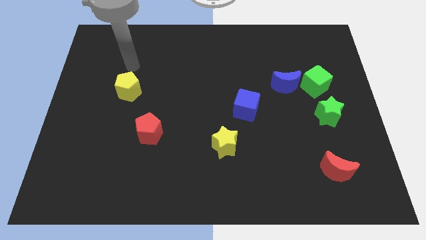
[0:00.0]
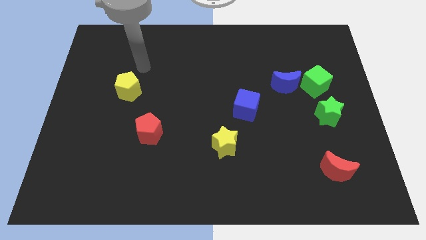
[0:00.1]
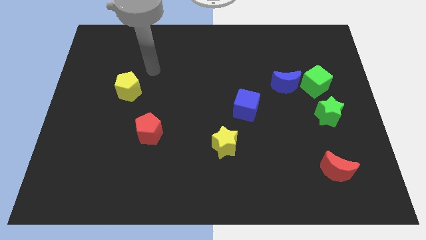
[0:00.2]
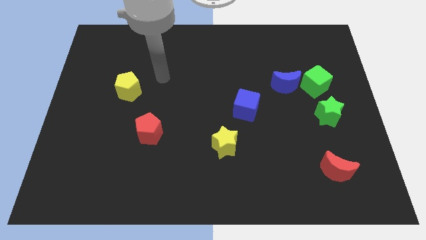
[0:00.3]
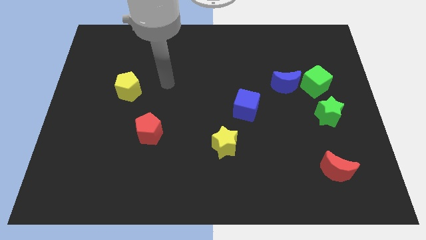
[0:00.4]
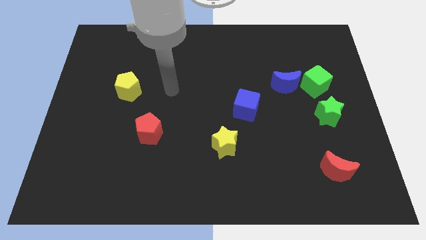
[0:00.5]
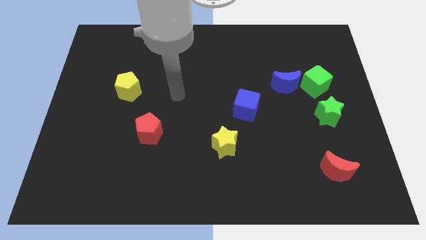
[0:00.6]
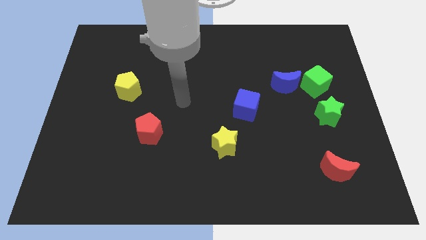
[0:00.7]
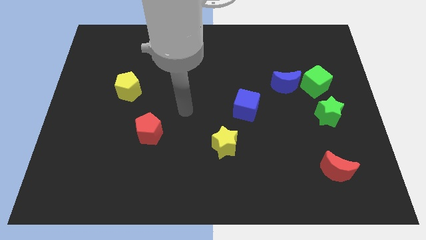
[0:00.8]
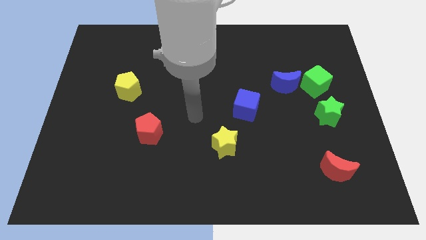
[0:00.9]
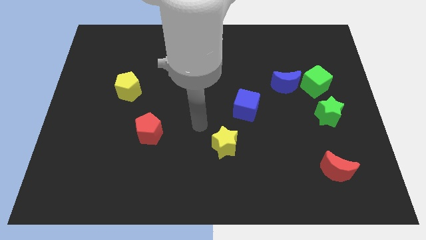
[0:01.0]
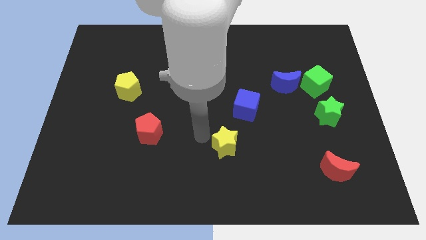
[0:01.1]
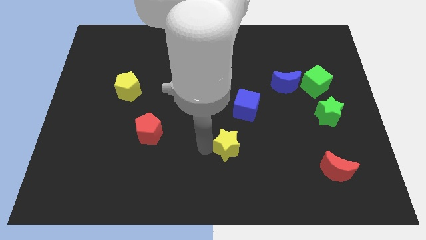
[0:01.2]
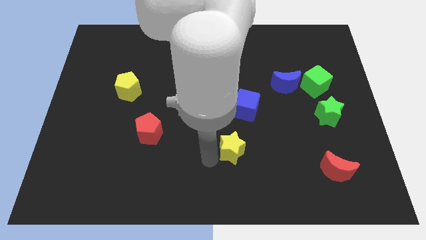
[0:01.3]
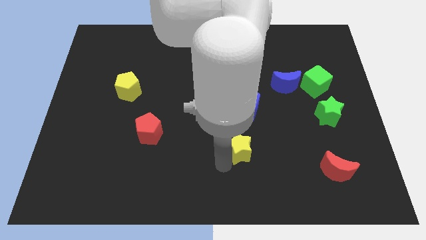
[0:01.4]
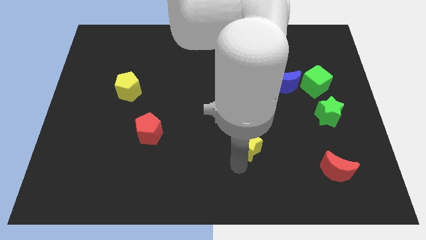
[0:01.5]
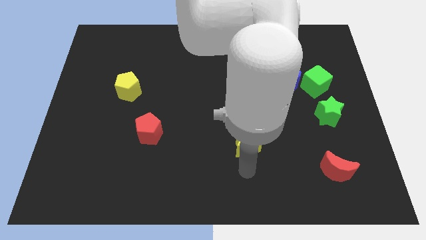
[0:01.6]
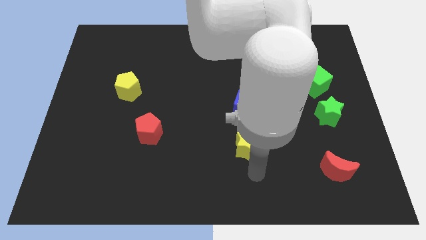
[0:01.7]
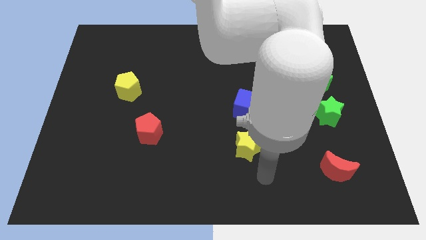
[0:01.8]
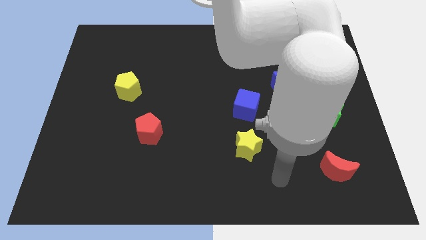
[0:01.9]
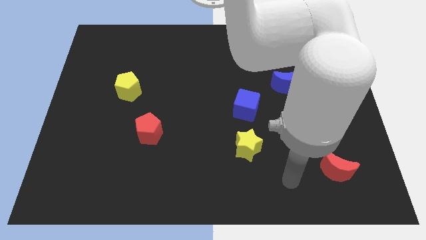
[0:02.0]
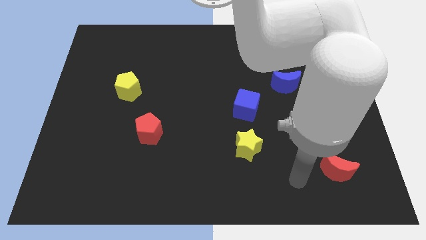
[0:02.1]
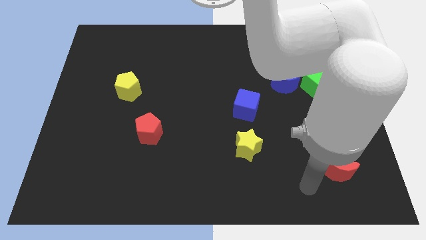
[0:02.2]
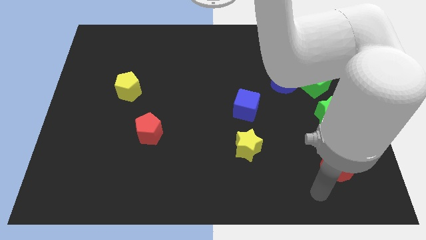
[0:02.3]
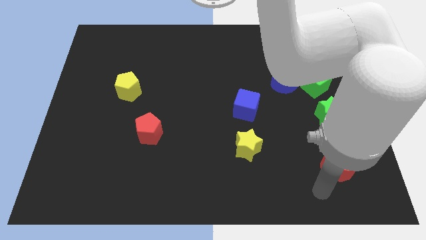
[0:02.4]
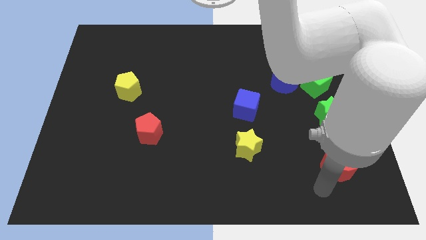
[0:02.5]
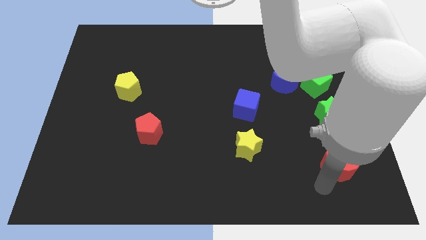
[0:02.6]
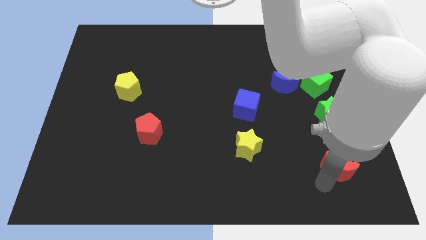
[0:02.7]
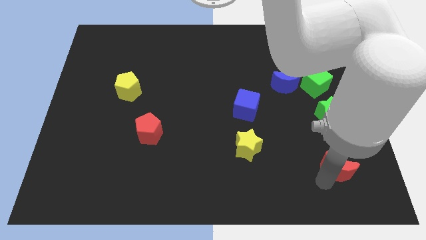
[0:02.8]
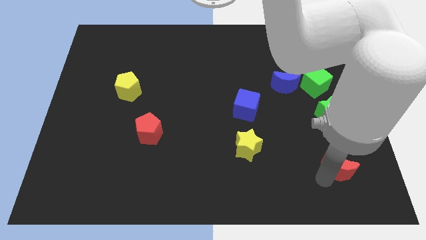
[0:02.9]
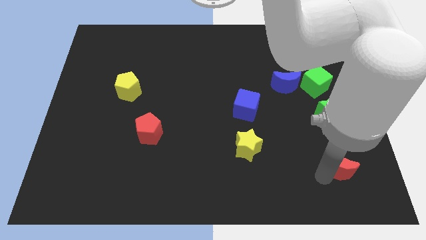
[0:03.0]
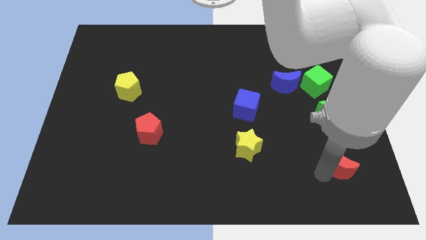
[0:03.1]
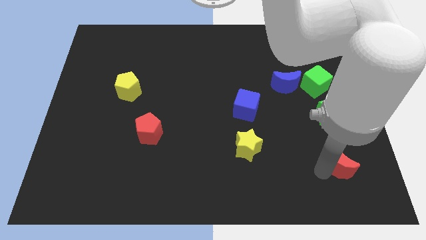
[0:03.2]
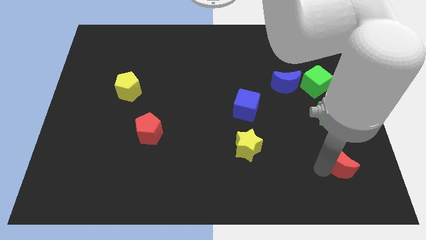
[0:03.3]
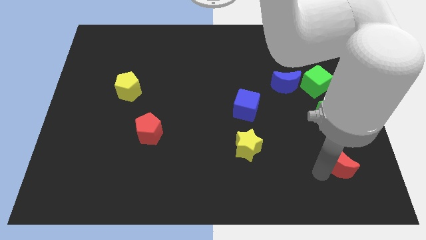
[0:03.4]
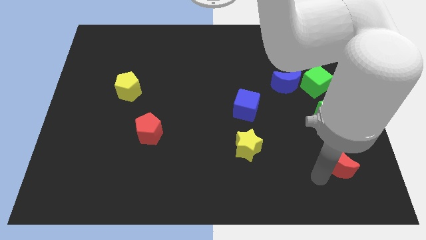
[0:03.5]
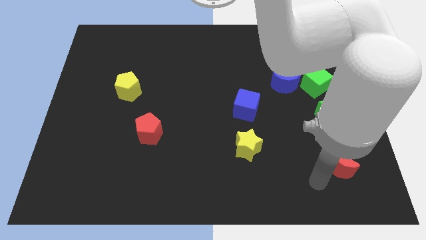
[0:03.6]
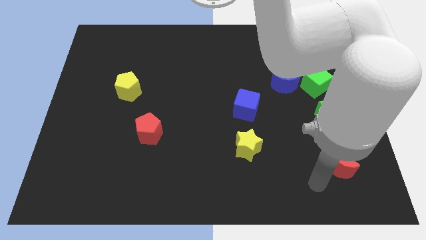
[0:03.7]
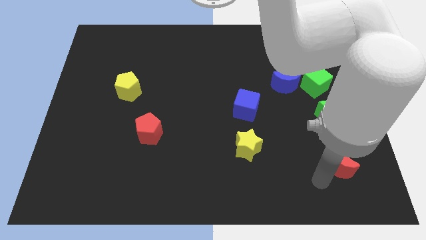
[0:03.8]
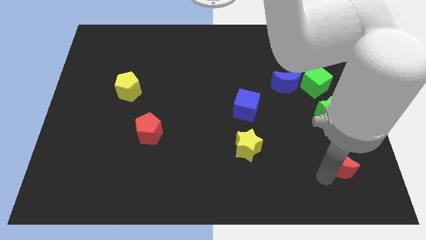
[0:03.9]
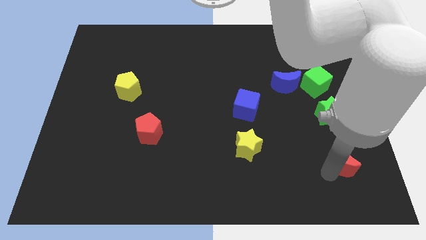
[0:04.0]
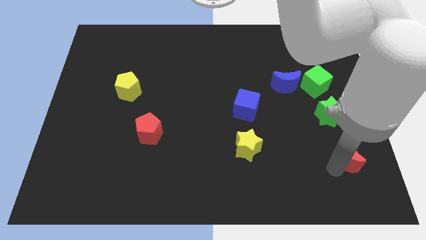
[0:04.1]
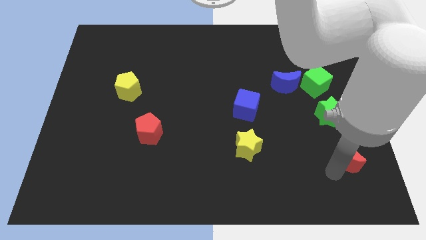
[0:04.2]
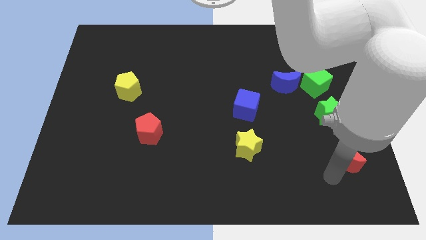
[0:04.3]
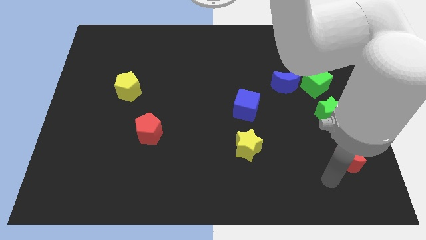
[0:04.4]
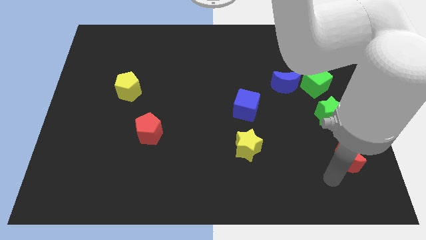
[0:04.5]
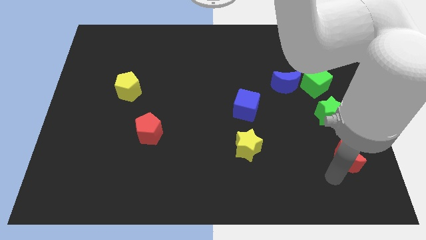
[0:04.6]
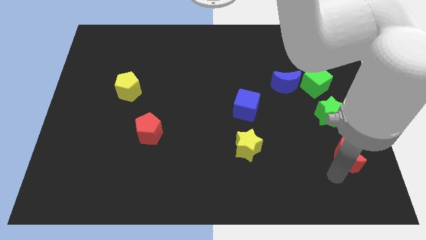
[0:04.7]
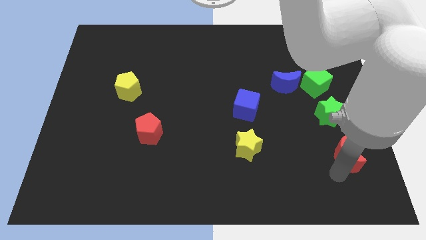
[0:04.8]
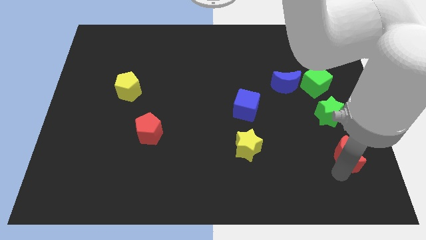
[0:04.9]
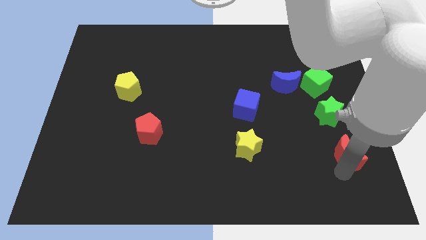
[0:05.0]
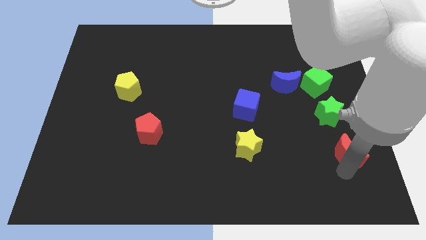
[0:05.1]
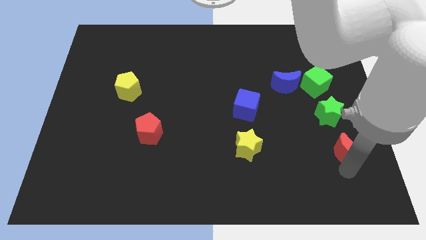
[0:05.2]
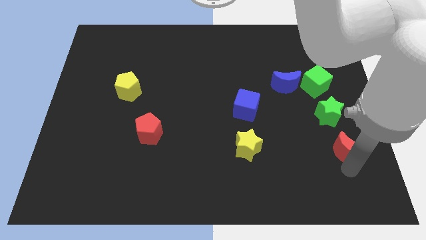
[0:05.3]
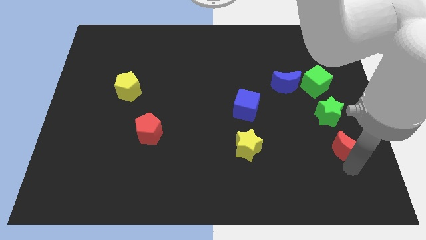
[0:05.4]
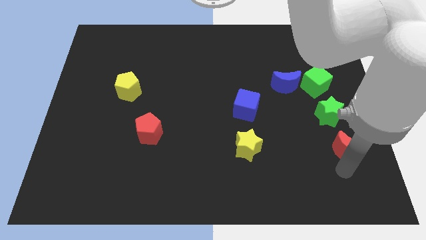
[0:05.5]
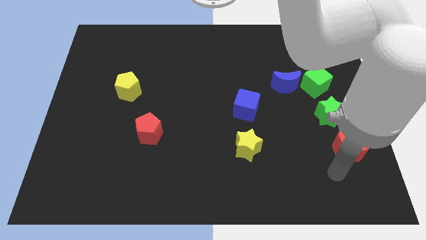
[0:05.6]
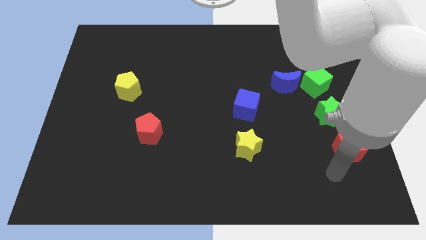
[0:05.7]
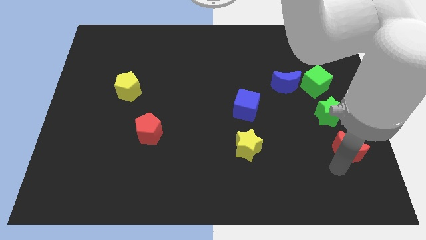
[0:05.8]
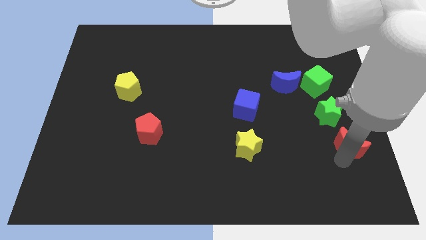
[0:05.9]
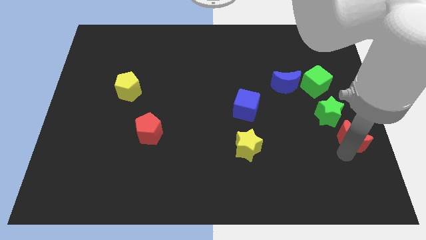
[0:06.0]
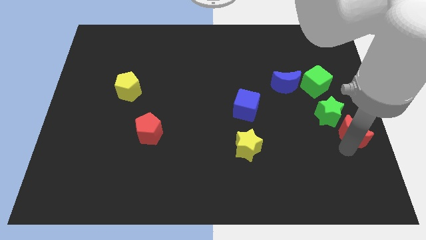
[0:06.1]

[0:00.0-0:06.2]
move the red moon to the right side
